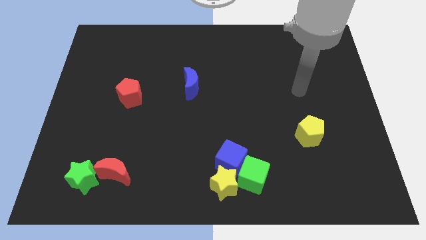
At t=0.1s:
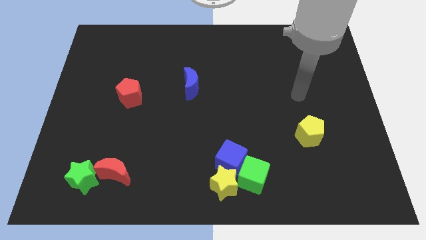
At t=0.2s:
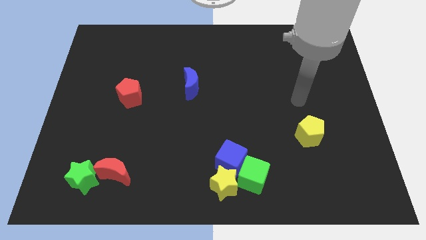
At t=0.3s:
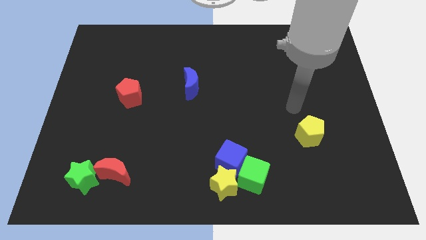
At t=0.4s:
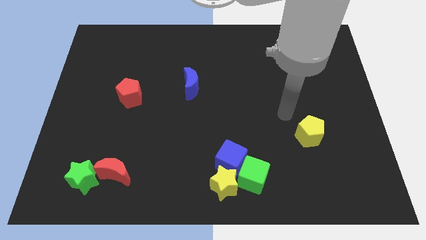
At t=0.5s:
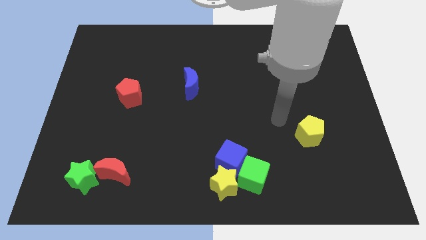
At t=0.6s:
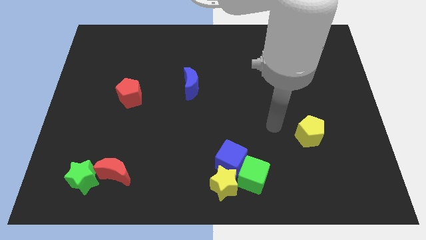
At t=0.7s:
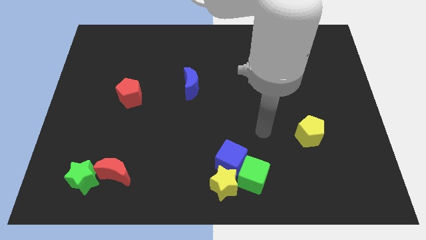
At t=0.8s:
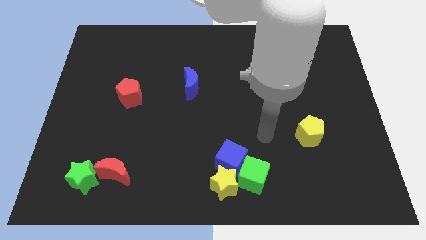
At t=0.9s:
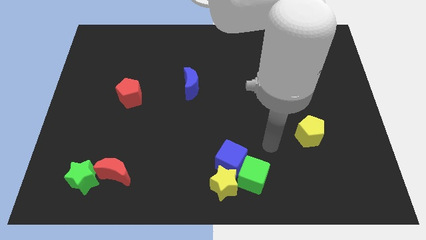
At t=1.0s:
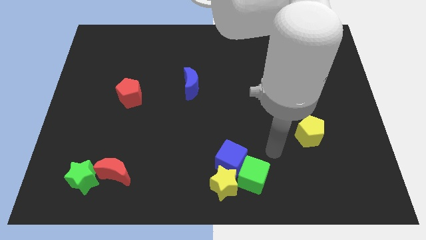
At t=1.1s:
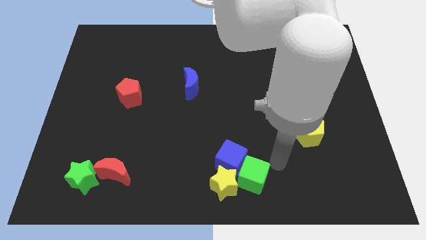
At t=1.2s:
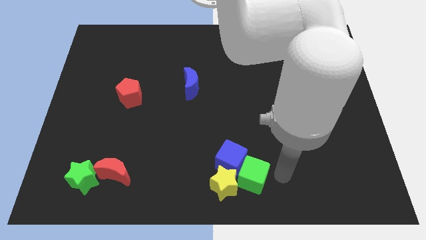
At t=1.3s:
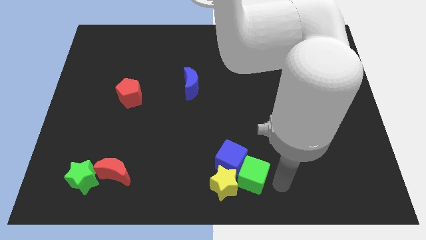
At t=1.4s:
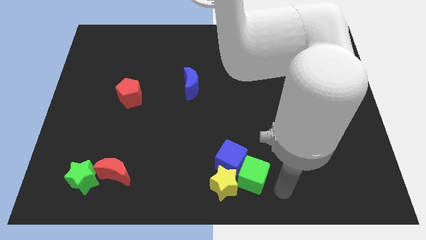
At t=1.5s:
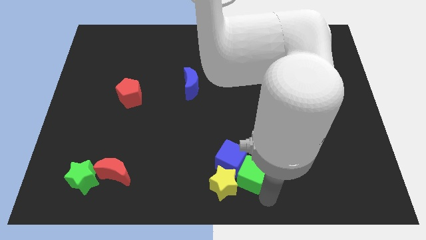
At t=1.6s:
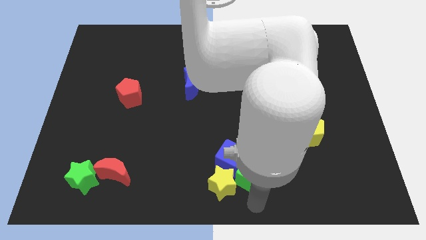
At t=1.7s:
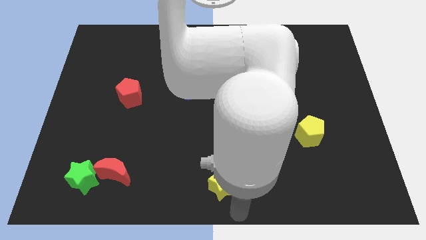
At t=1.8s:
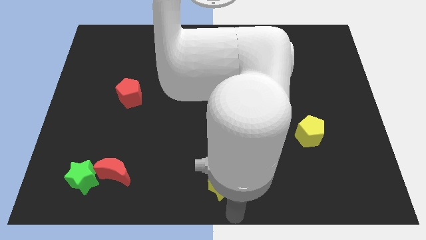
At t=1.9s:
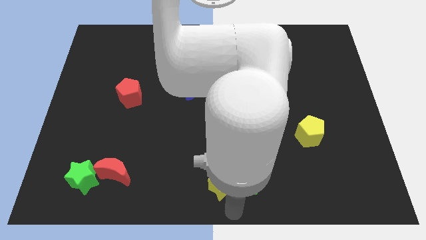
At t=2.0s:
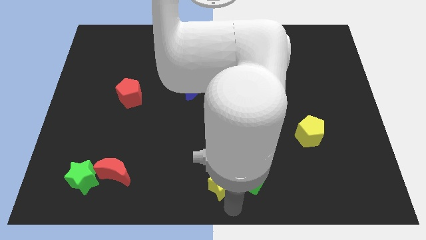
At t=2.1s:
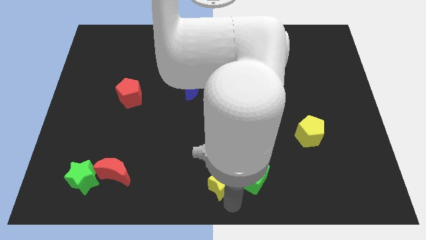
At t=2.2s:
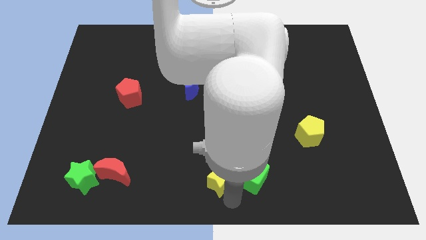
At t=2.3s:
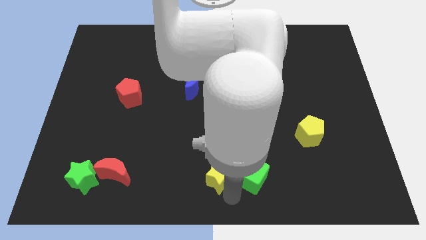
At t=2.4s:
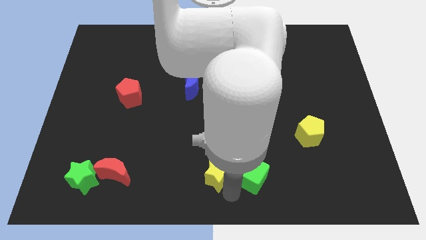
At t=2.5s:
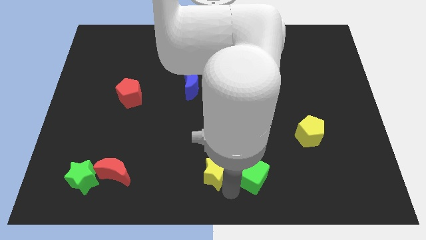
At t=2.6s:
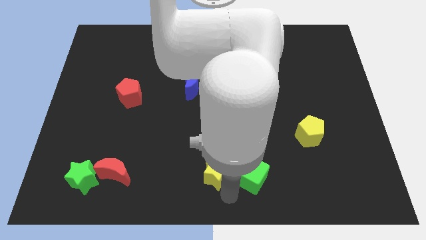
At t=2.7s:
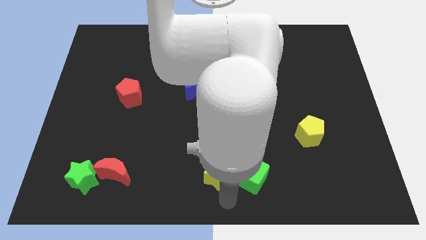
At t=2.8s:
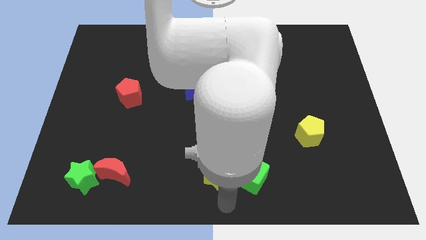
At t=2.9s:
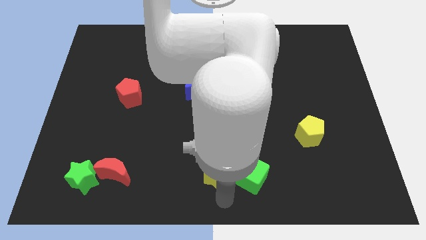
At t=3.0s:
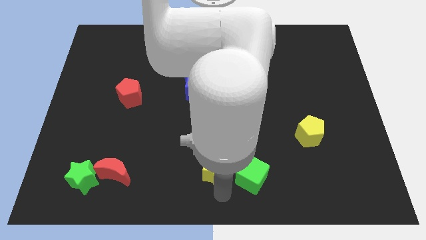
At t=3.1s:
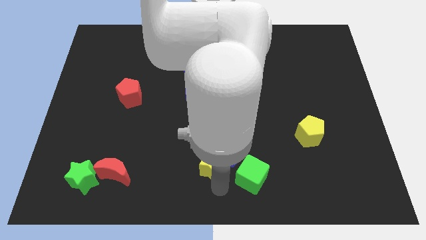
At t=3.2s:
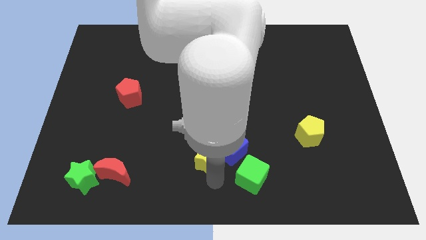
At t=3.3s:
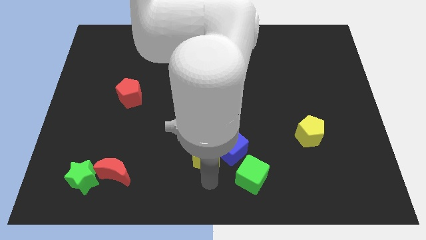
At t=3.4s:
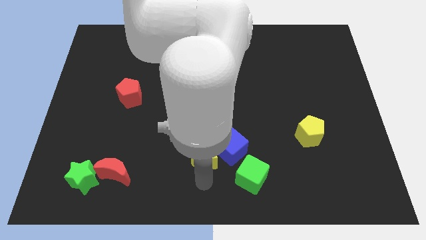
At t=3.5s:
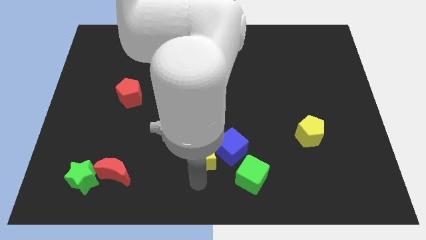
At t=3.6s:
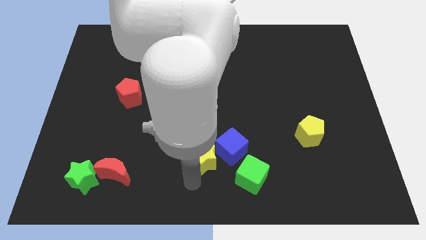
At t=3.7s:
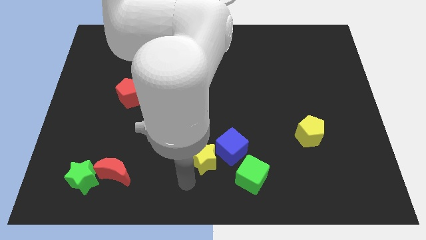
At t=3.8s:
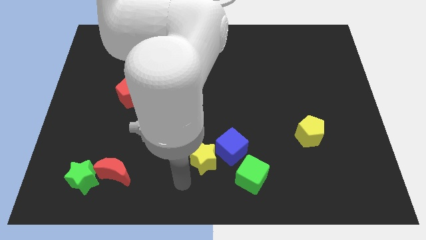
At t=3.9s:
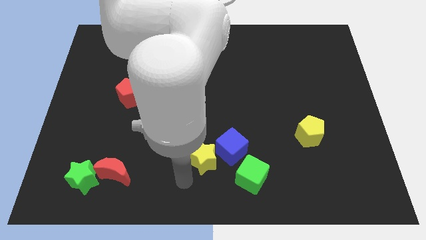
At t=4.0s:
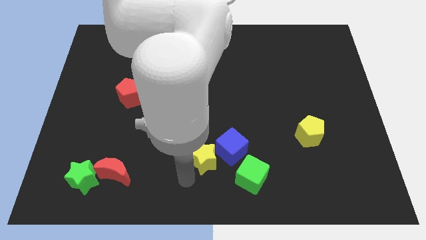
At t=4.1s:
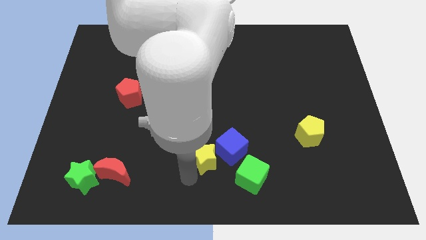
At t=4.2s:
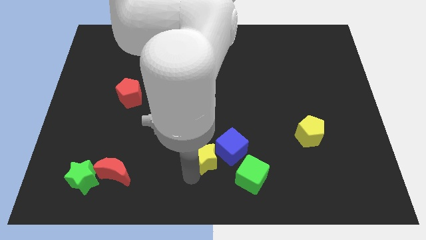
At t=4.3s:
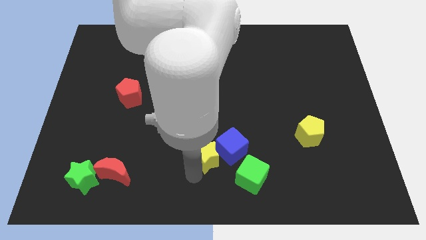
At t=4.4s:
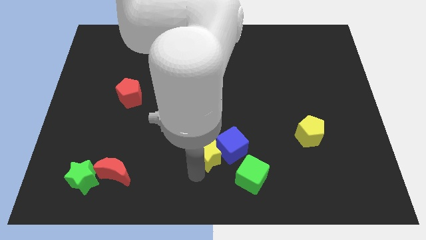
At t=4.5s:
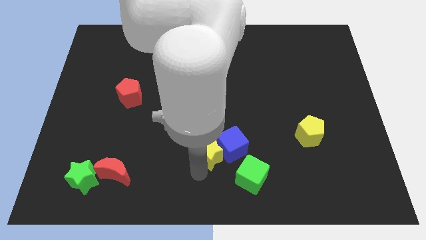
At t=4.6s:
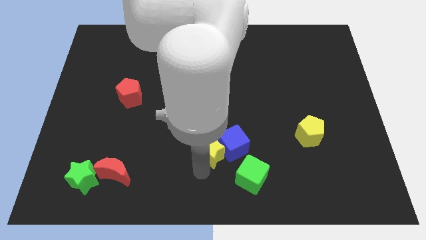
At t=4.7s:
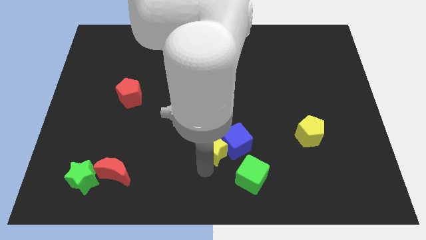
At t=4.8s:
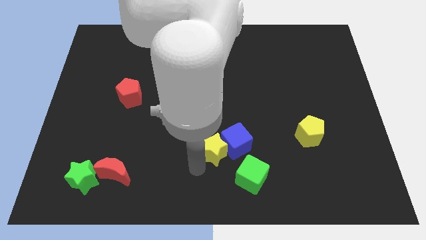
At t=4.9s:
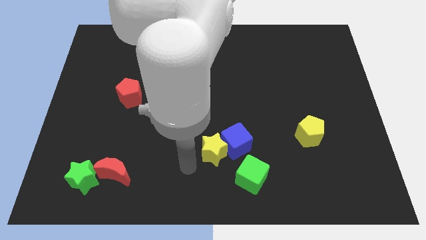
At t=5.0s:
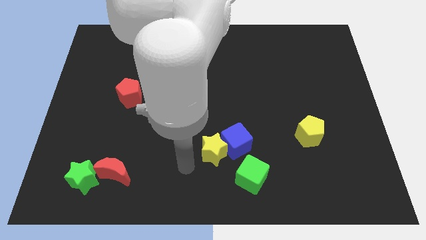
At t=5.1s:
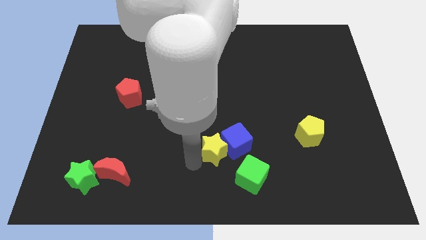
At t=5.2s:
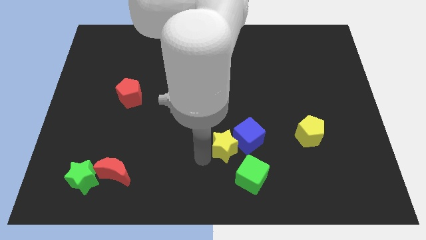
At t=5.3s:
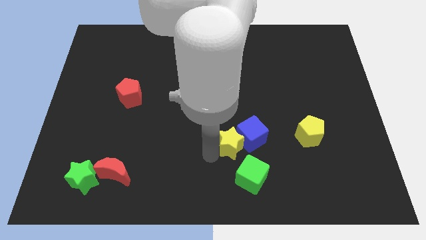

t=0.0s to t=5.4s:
move the yellow star to the top side of the green cube

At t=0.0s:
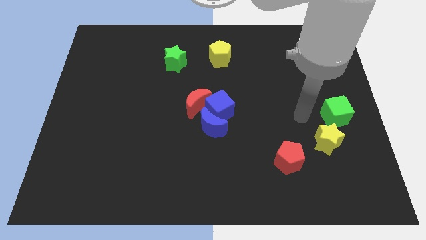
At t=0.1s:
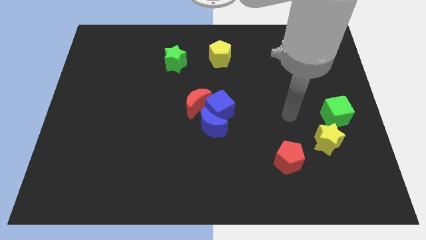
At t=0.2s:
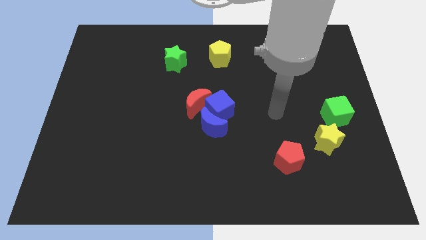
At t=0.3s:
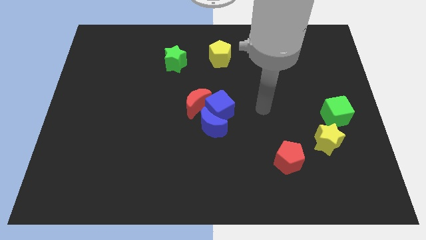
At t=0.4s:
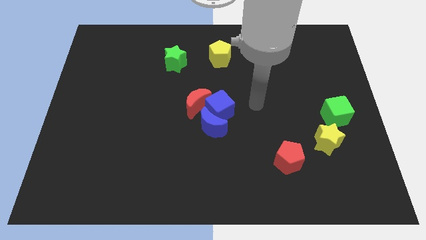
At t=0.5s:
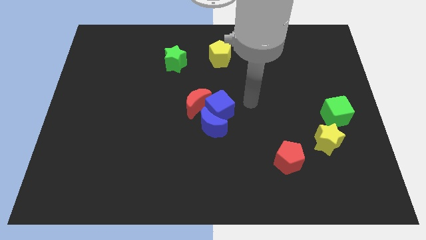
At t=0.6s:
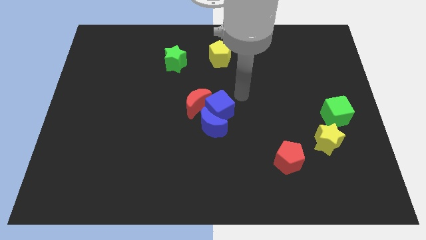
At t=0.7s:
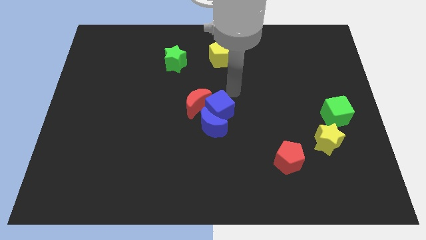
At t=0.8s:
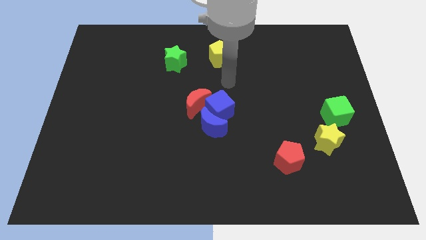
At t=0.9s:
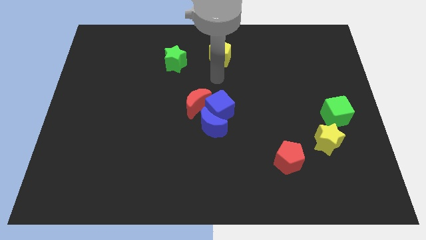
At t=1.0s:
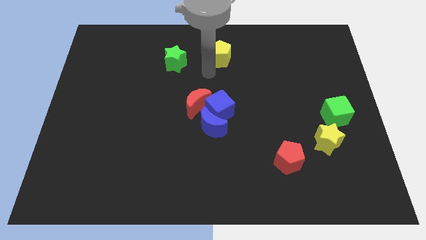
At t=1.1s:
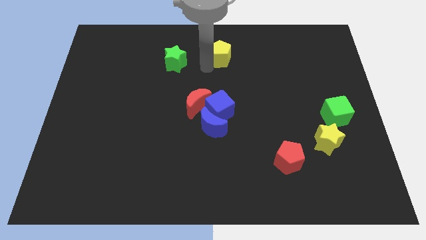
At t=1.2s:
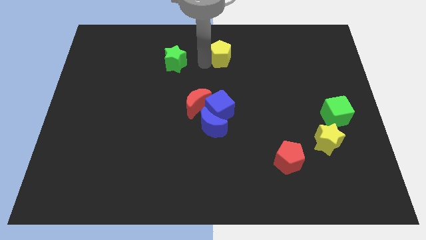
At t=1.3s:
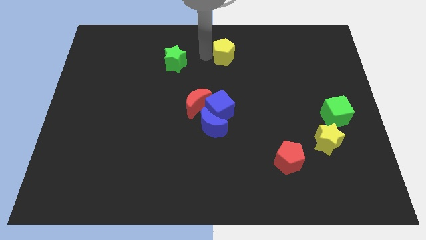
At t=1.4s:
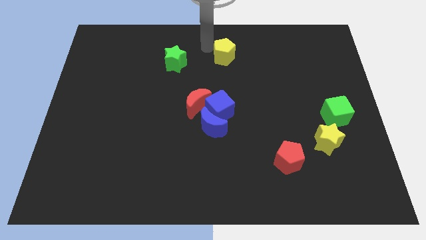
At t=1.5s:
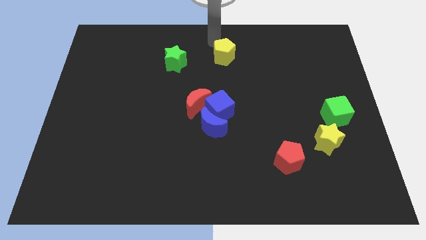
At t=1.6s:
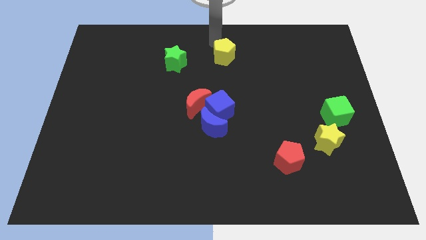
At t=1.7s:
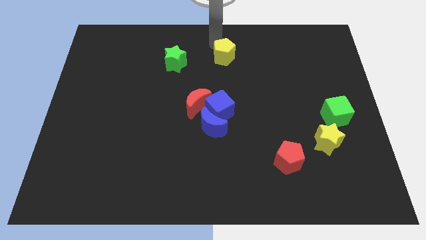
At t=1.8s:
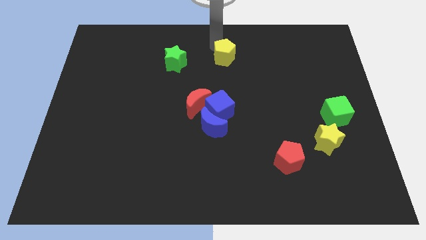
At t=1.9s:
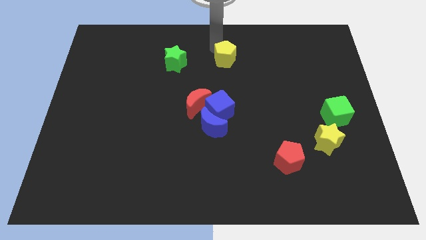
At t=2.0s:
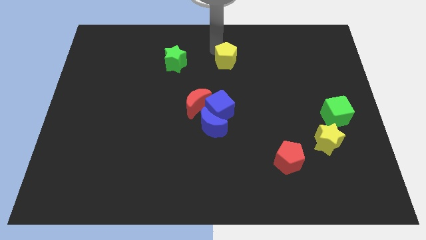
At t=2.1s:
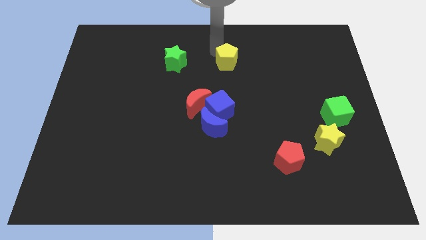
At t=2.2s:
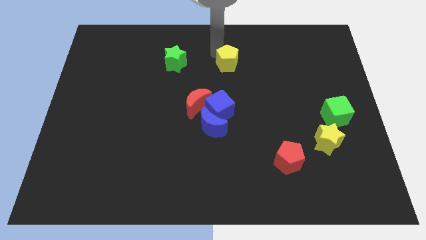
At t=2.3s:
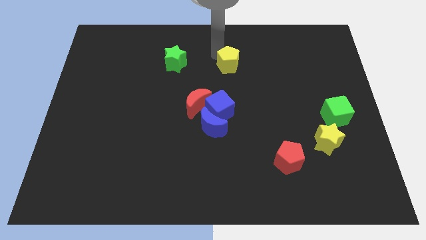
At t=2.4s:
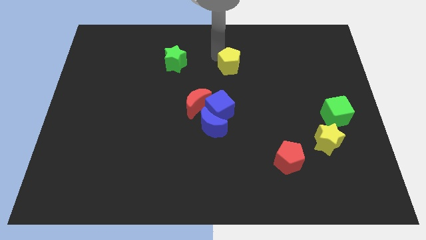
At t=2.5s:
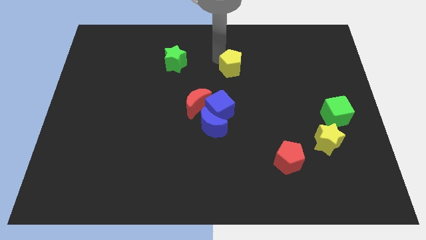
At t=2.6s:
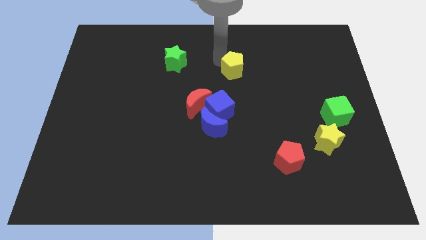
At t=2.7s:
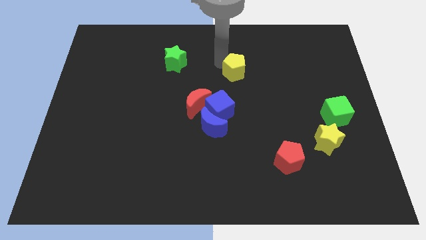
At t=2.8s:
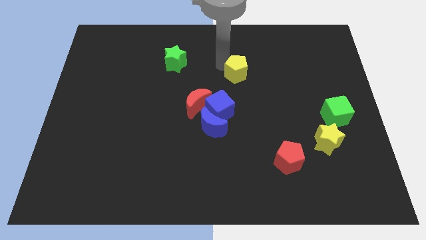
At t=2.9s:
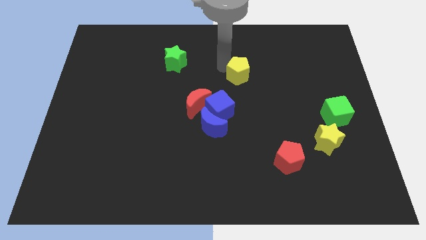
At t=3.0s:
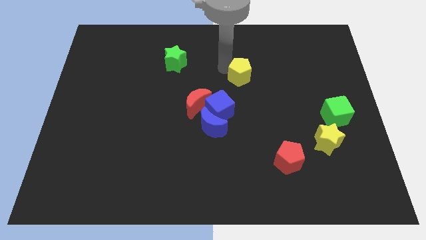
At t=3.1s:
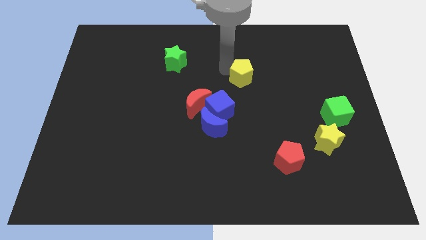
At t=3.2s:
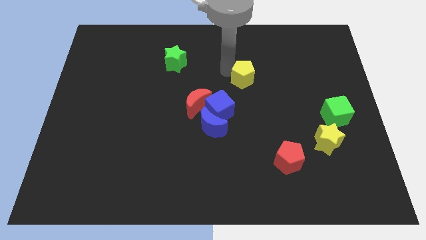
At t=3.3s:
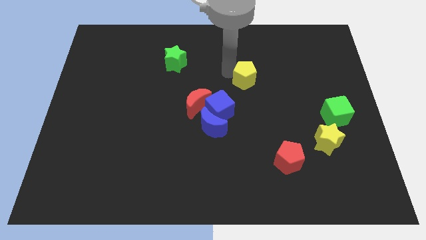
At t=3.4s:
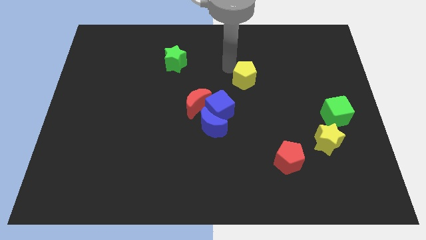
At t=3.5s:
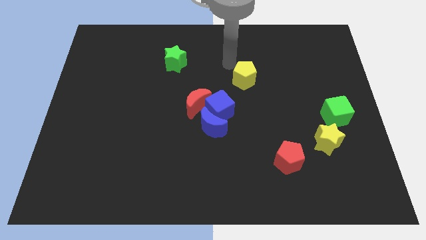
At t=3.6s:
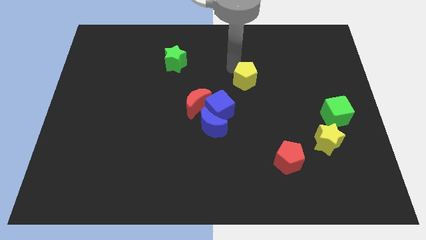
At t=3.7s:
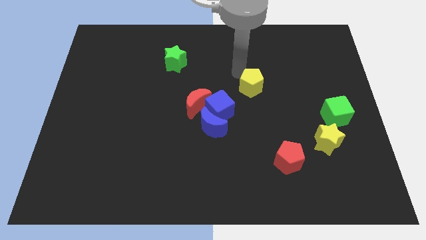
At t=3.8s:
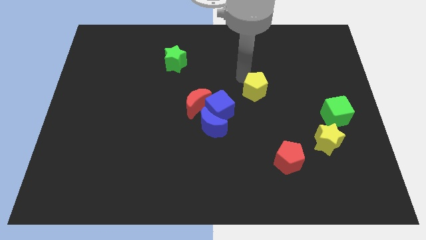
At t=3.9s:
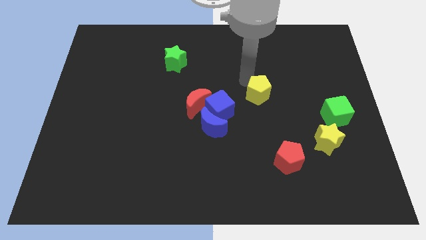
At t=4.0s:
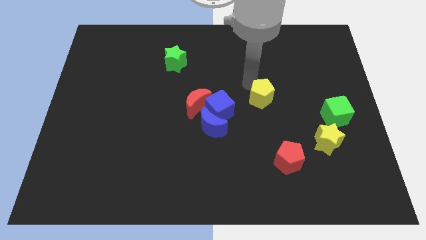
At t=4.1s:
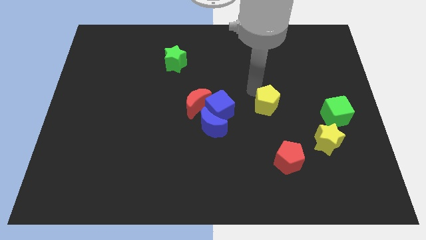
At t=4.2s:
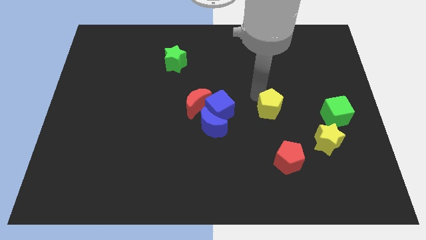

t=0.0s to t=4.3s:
put the yellow pentagon left of the green cube
